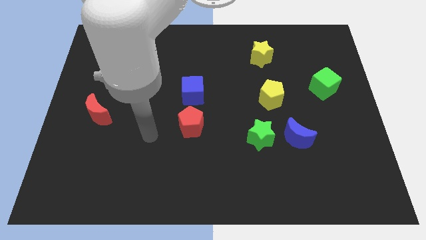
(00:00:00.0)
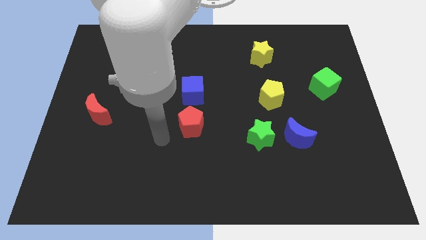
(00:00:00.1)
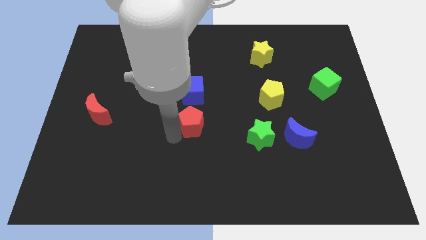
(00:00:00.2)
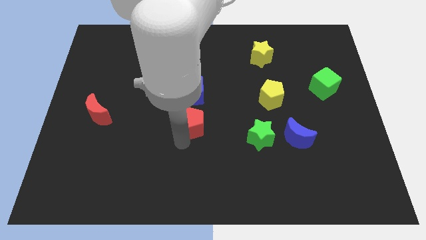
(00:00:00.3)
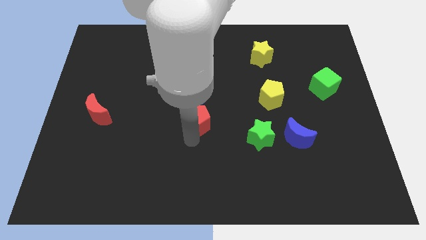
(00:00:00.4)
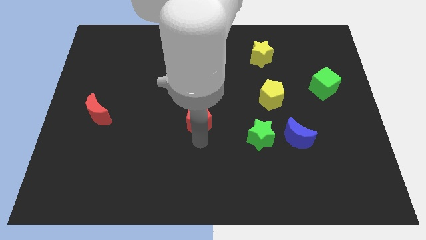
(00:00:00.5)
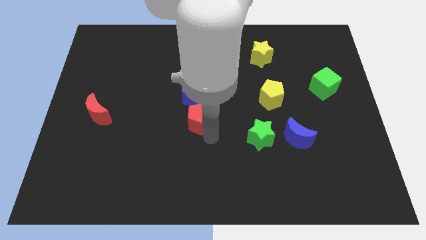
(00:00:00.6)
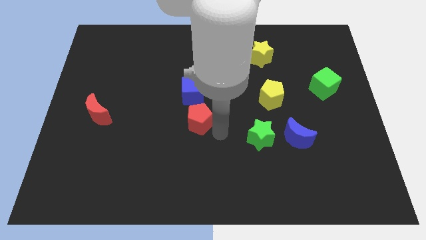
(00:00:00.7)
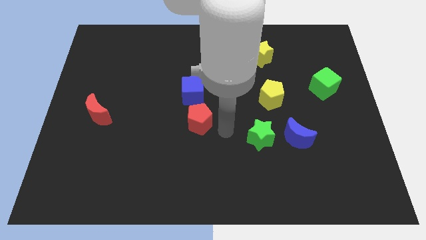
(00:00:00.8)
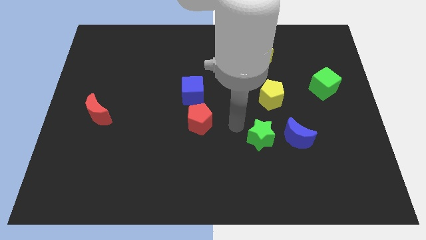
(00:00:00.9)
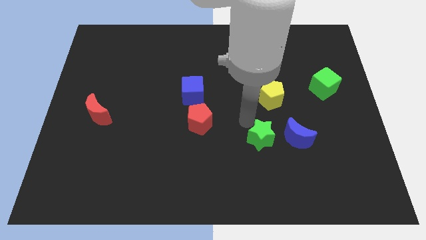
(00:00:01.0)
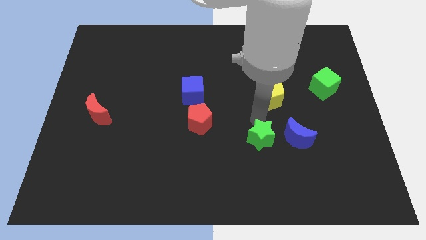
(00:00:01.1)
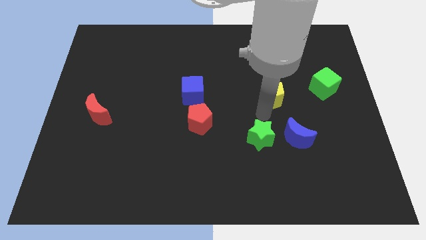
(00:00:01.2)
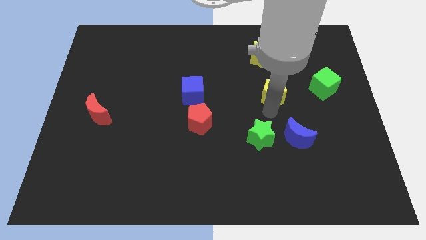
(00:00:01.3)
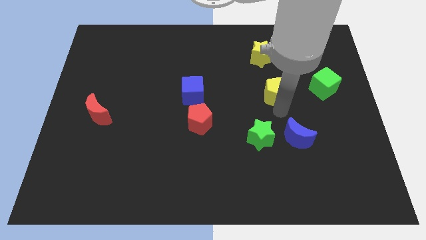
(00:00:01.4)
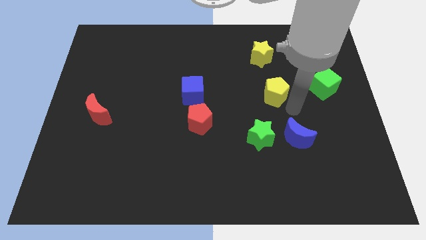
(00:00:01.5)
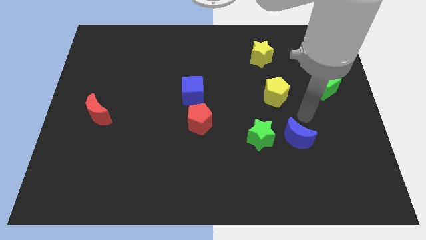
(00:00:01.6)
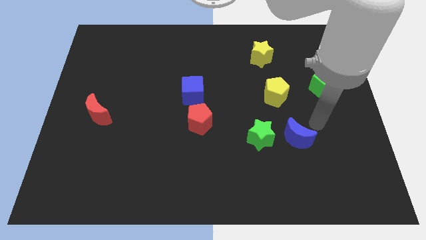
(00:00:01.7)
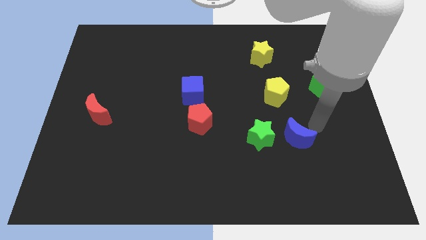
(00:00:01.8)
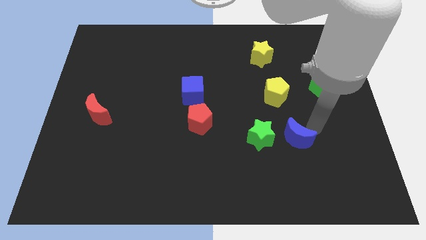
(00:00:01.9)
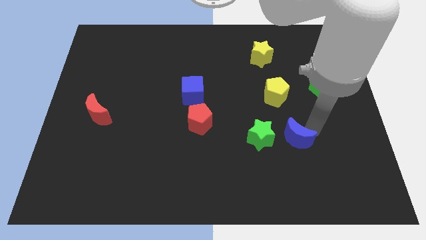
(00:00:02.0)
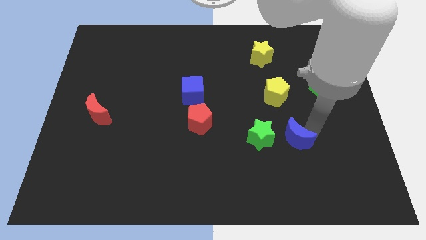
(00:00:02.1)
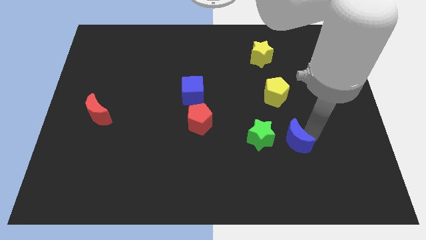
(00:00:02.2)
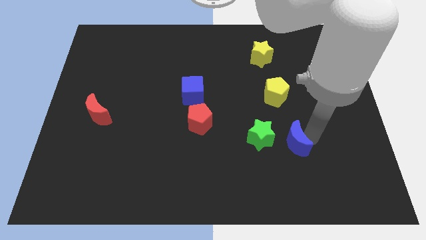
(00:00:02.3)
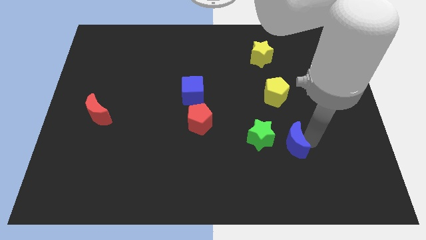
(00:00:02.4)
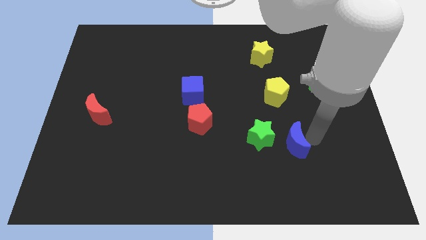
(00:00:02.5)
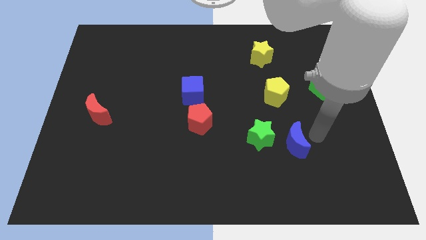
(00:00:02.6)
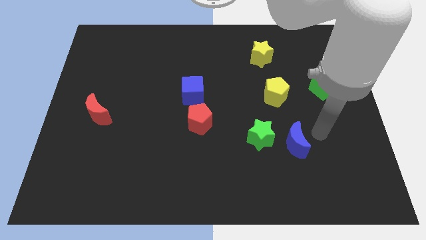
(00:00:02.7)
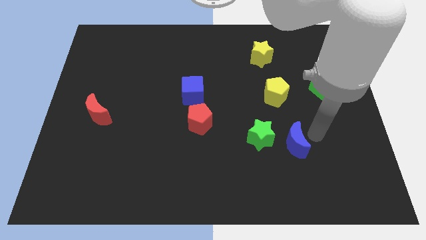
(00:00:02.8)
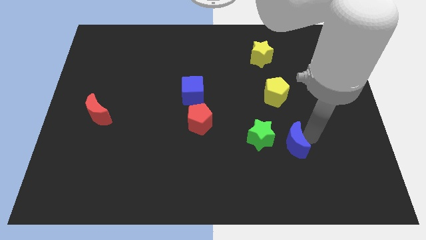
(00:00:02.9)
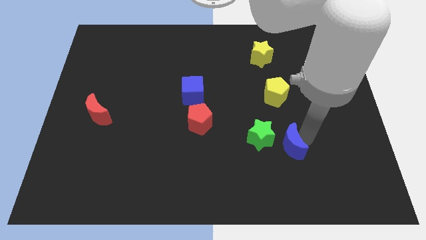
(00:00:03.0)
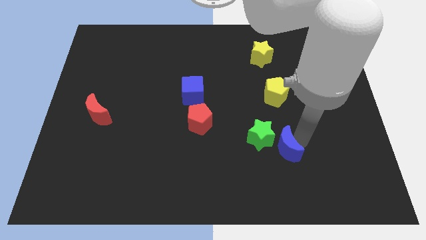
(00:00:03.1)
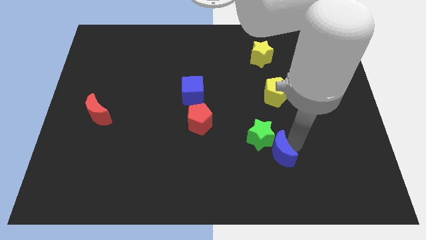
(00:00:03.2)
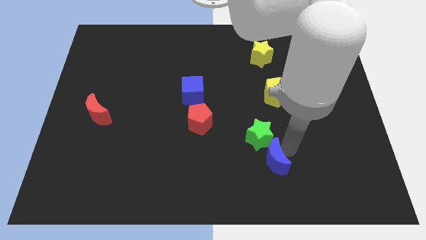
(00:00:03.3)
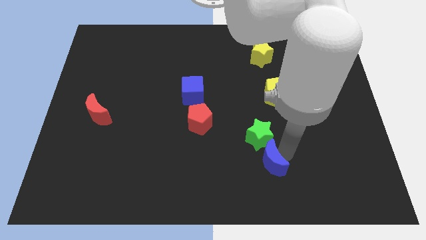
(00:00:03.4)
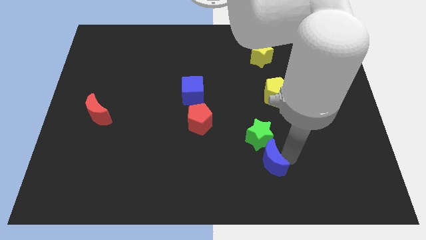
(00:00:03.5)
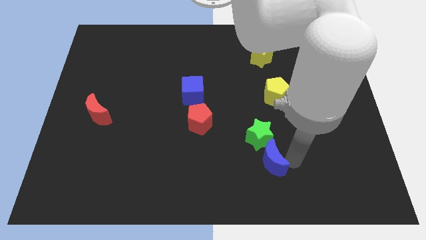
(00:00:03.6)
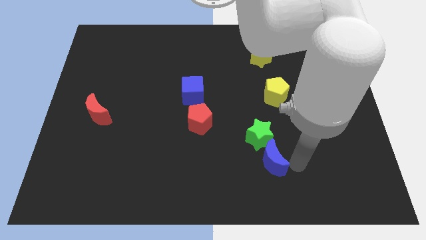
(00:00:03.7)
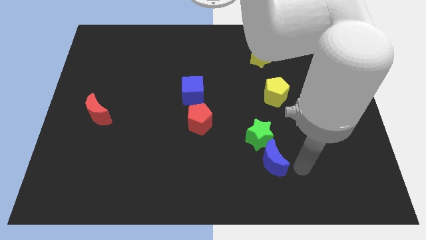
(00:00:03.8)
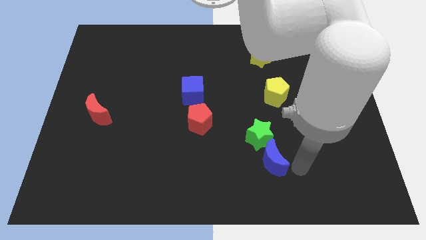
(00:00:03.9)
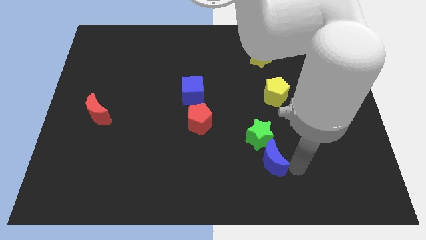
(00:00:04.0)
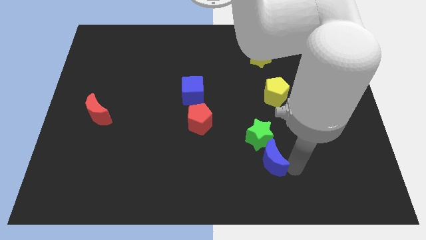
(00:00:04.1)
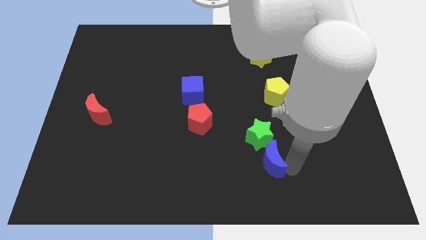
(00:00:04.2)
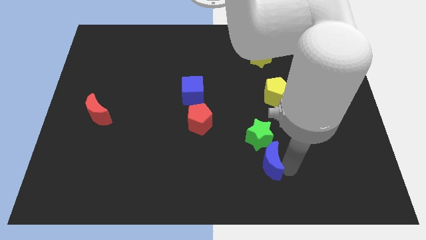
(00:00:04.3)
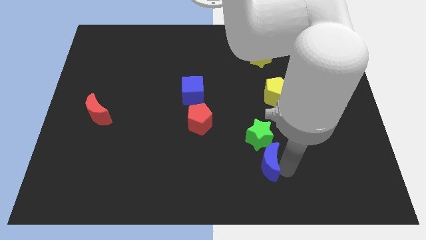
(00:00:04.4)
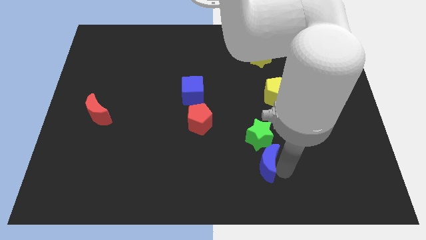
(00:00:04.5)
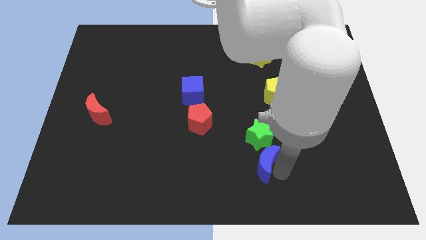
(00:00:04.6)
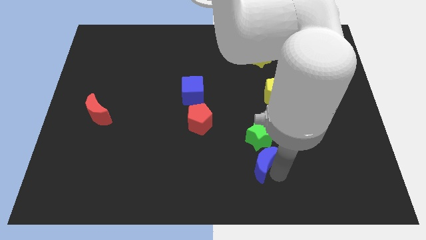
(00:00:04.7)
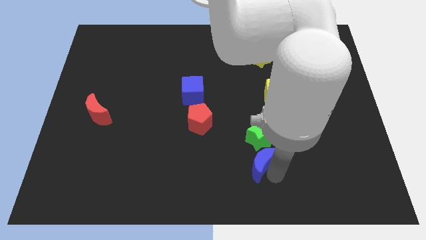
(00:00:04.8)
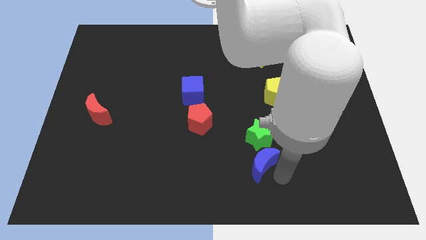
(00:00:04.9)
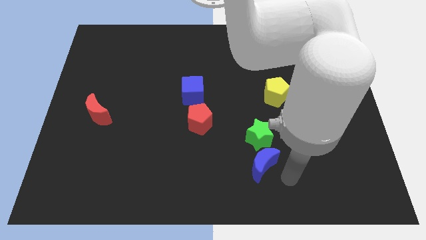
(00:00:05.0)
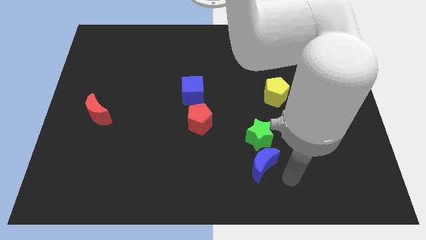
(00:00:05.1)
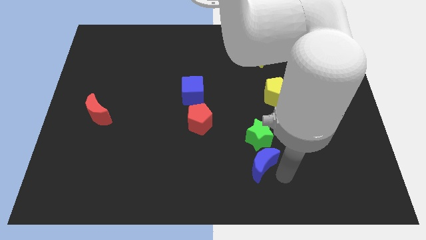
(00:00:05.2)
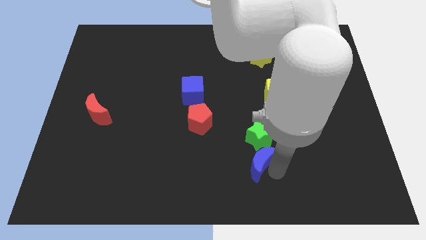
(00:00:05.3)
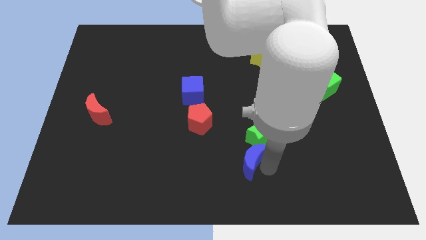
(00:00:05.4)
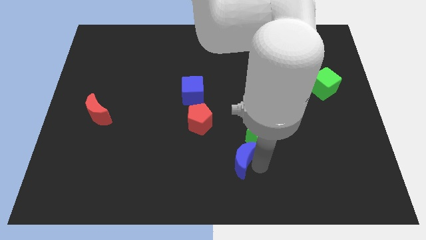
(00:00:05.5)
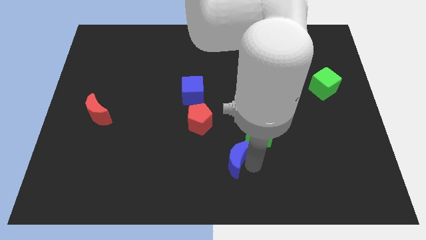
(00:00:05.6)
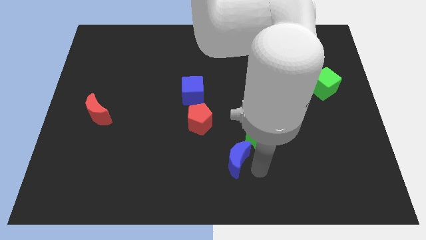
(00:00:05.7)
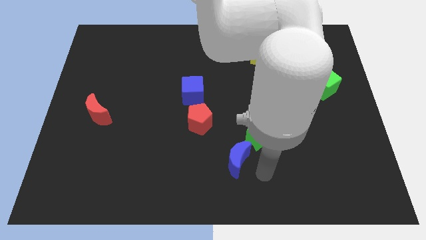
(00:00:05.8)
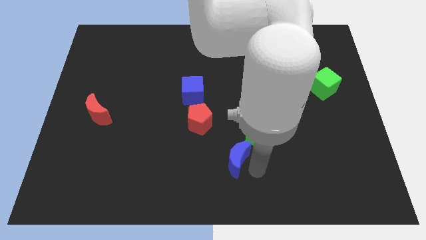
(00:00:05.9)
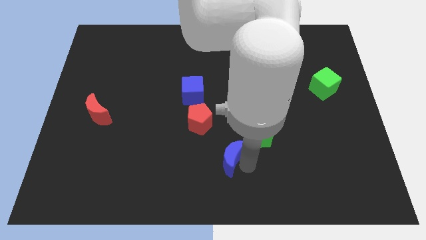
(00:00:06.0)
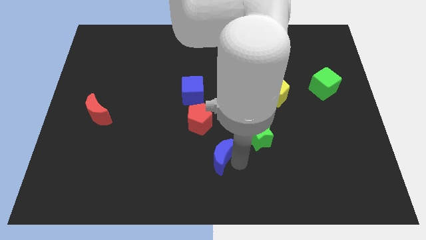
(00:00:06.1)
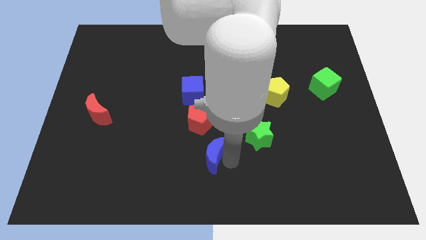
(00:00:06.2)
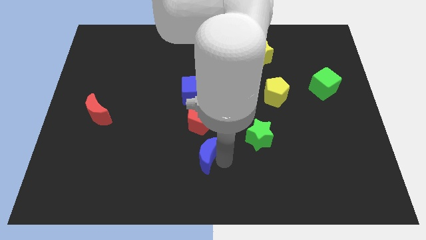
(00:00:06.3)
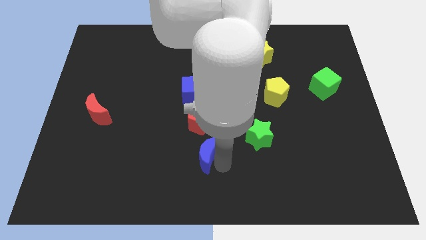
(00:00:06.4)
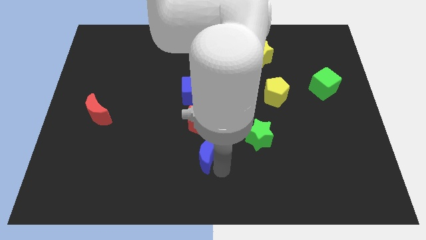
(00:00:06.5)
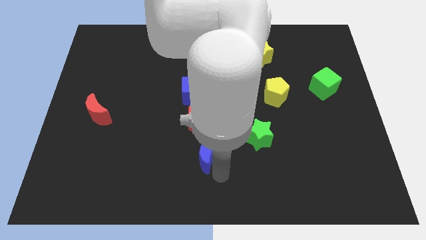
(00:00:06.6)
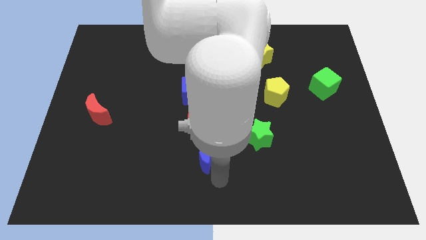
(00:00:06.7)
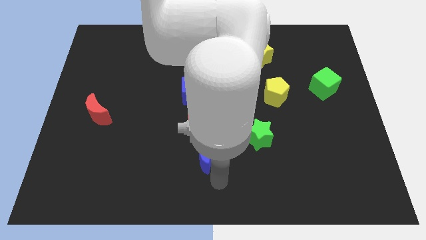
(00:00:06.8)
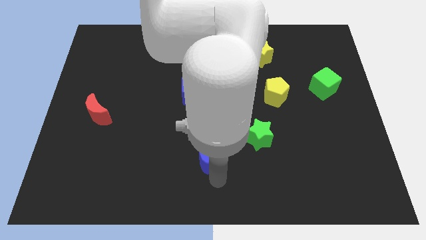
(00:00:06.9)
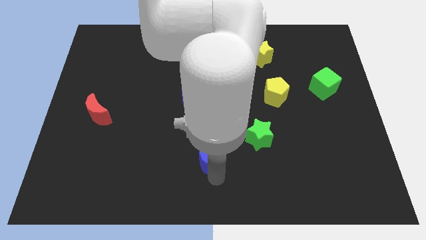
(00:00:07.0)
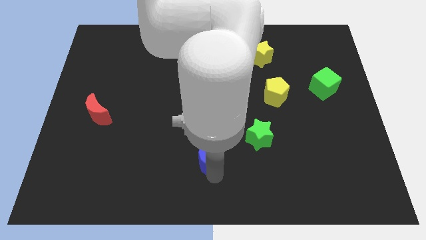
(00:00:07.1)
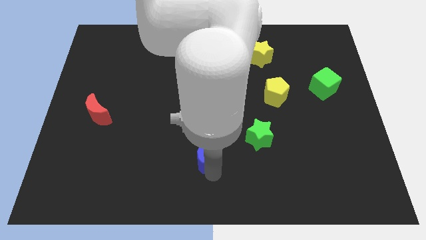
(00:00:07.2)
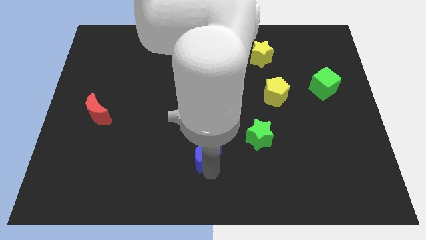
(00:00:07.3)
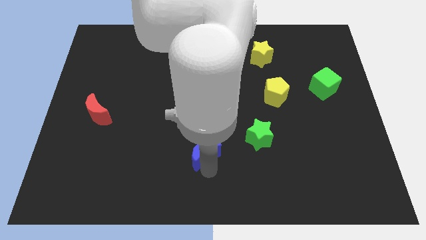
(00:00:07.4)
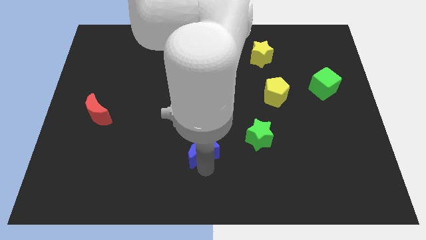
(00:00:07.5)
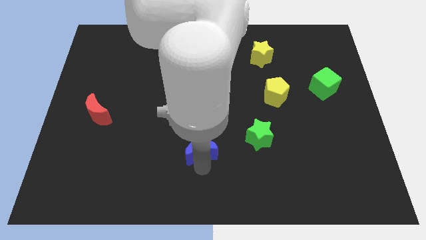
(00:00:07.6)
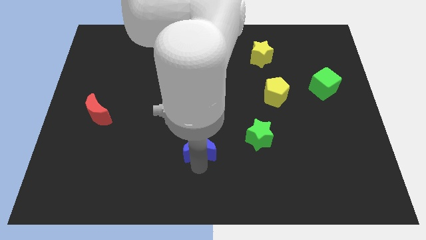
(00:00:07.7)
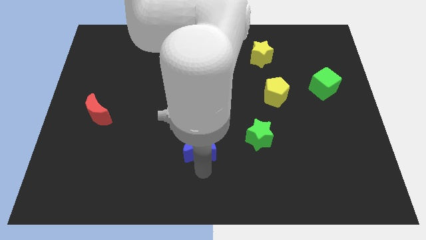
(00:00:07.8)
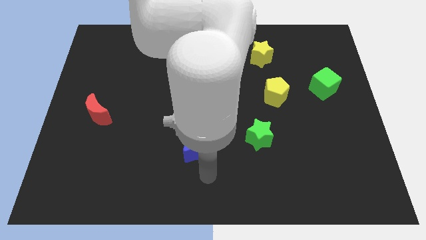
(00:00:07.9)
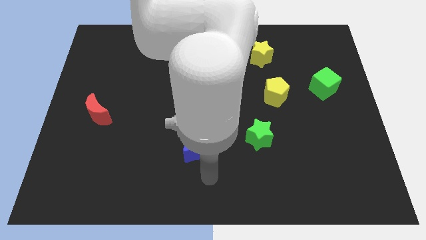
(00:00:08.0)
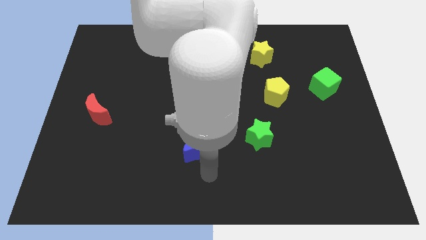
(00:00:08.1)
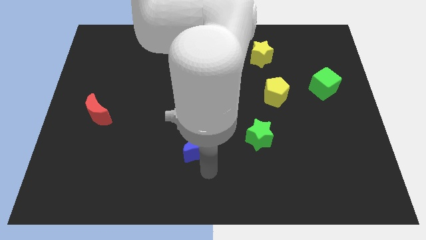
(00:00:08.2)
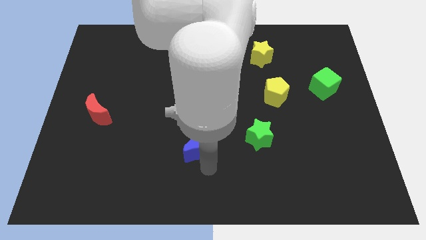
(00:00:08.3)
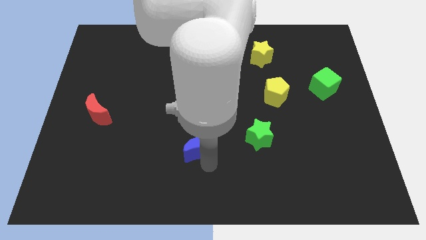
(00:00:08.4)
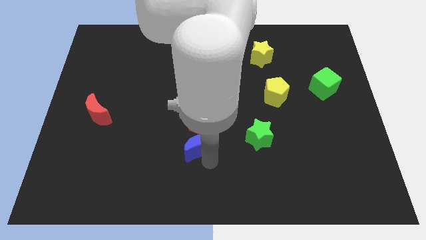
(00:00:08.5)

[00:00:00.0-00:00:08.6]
slide the blue moon below the blue cube
